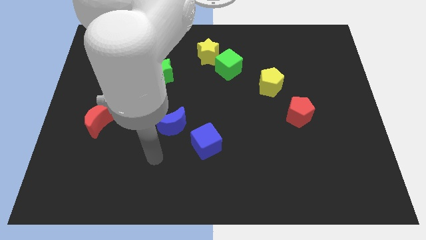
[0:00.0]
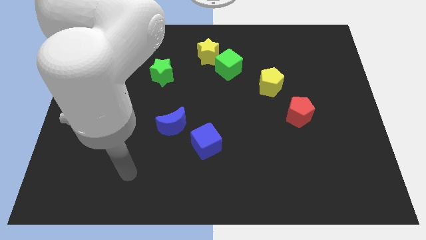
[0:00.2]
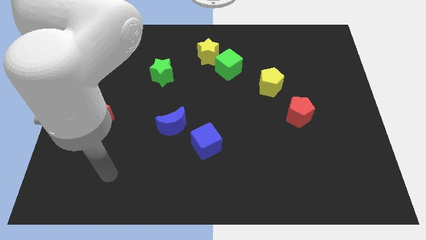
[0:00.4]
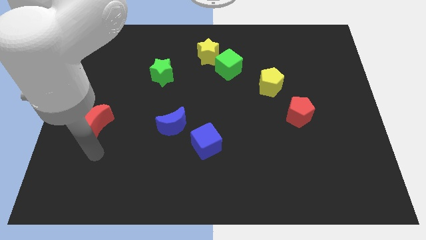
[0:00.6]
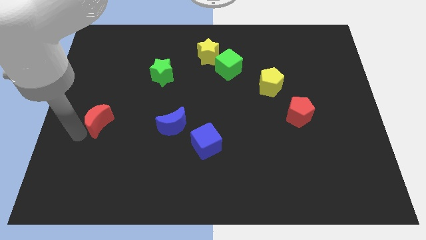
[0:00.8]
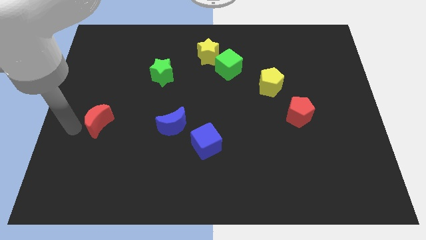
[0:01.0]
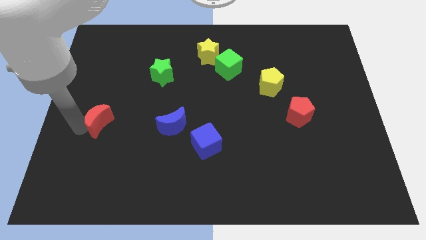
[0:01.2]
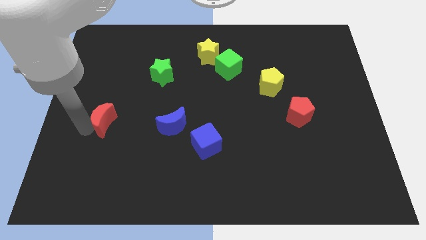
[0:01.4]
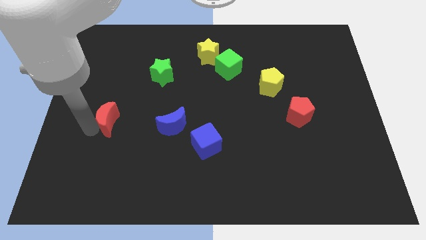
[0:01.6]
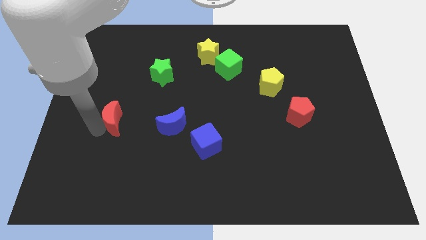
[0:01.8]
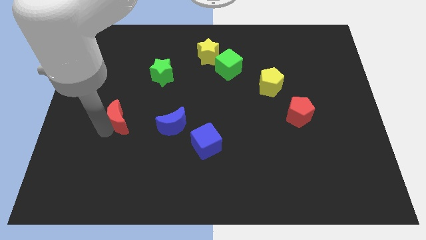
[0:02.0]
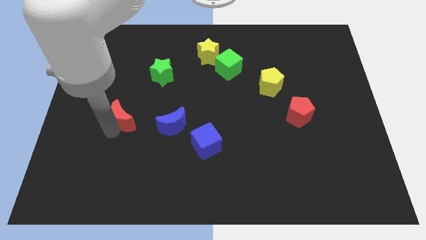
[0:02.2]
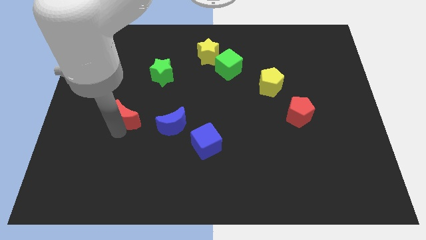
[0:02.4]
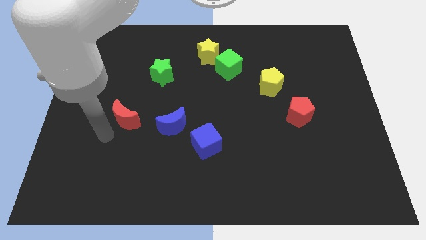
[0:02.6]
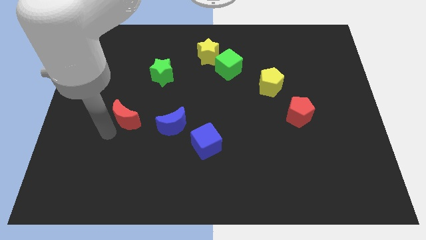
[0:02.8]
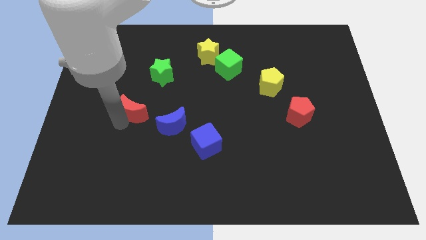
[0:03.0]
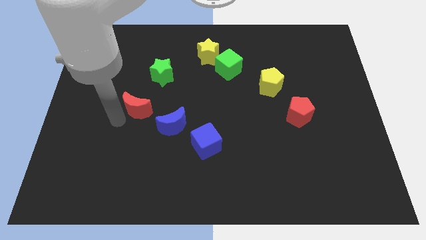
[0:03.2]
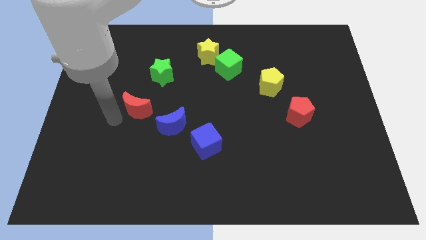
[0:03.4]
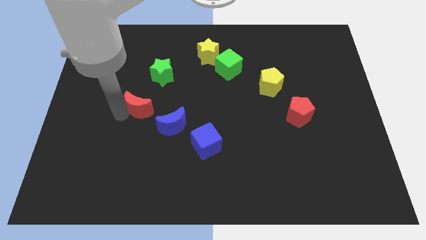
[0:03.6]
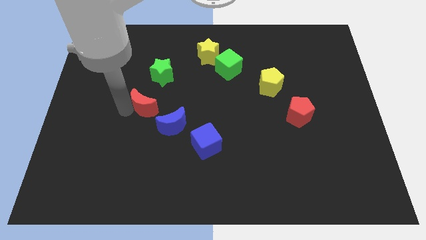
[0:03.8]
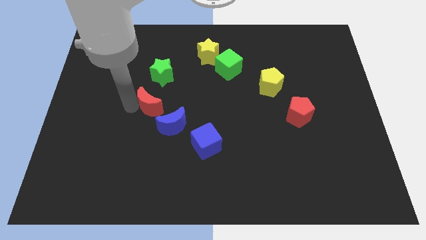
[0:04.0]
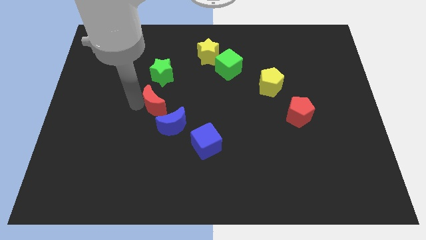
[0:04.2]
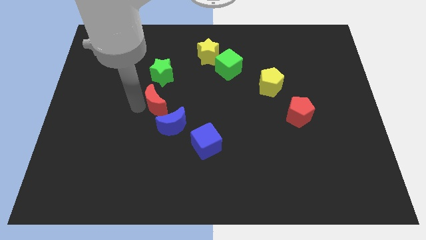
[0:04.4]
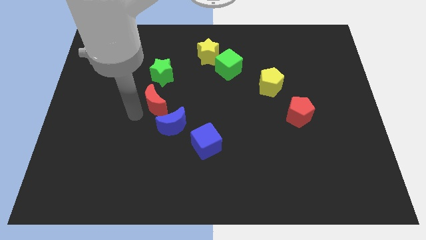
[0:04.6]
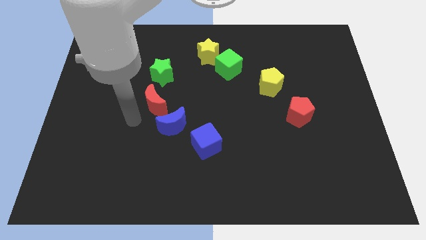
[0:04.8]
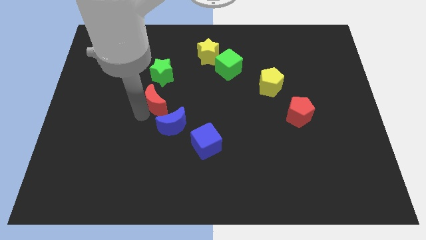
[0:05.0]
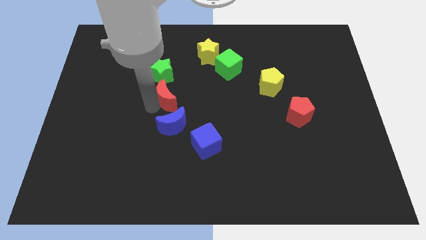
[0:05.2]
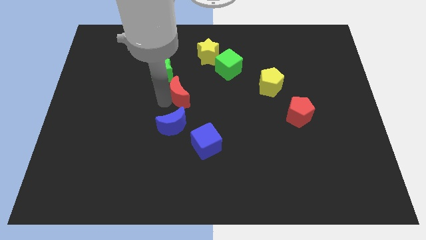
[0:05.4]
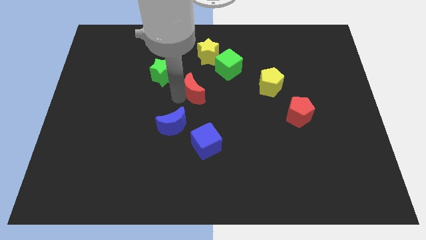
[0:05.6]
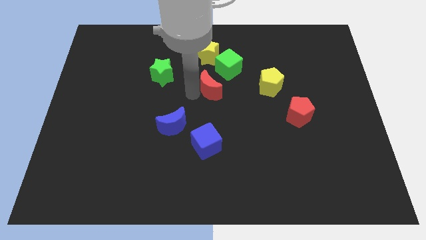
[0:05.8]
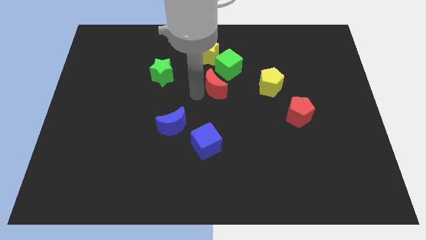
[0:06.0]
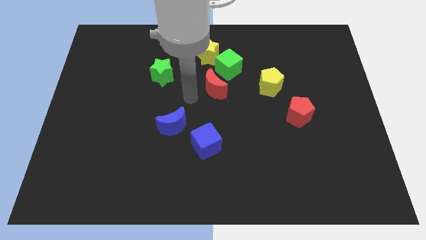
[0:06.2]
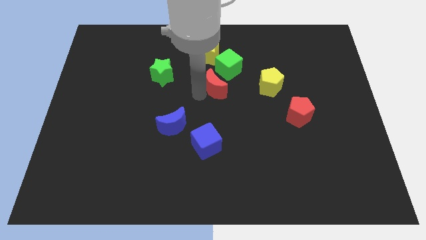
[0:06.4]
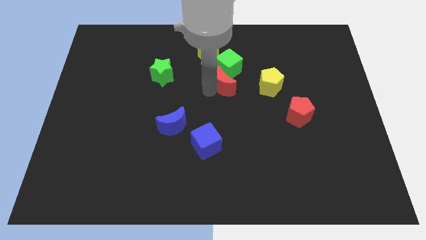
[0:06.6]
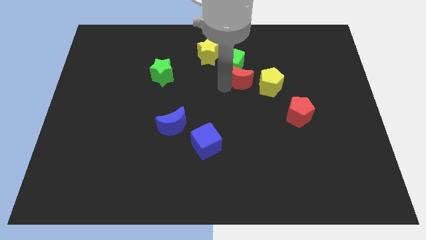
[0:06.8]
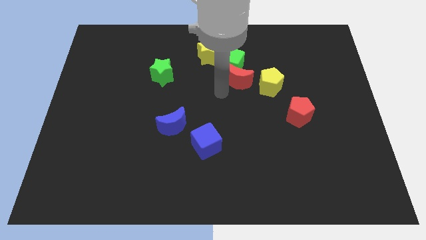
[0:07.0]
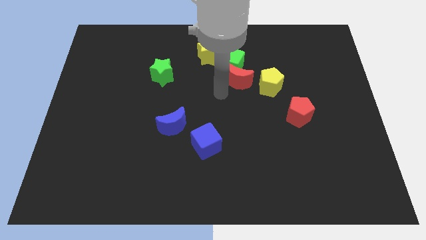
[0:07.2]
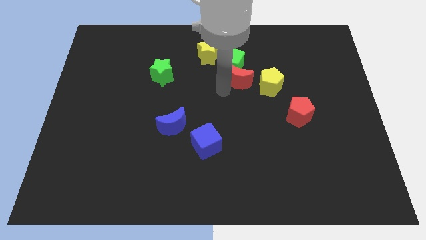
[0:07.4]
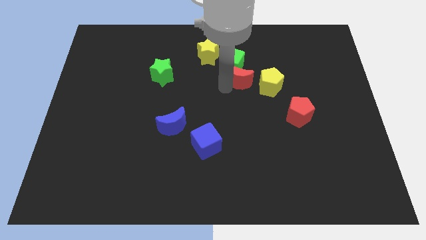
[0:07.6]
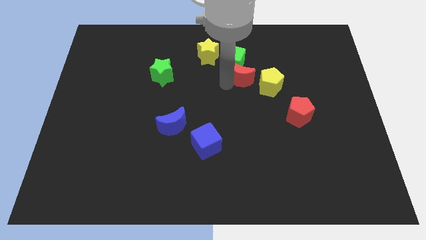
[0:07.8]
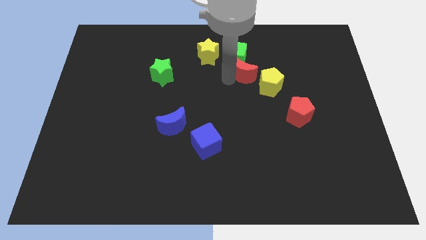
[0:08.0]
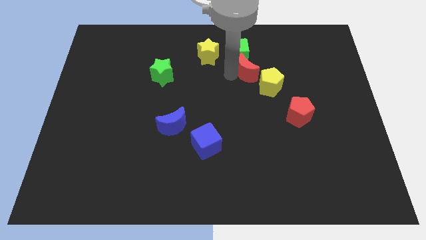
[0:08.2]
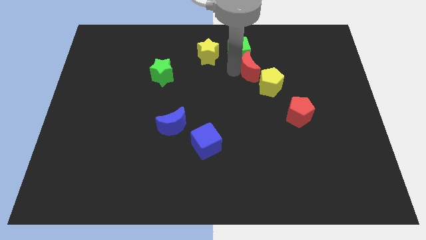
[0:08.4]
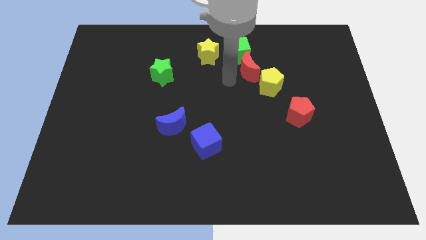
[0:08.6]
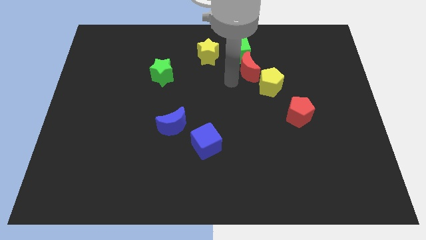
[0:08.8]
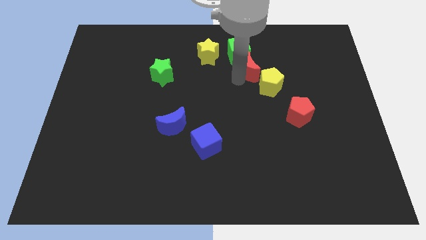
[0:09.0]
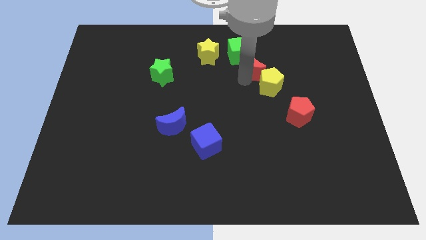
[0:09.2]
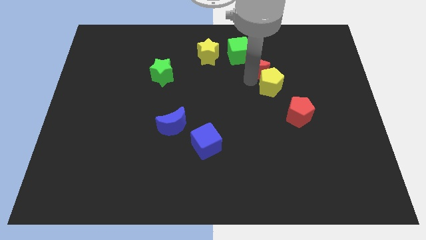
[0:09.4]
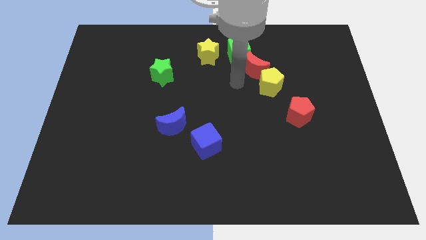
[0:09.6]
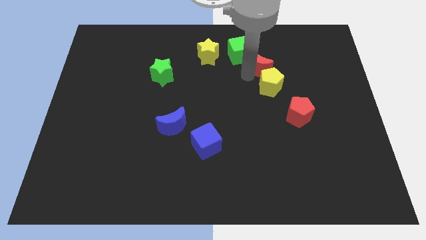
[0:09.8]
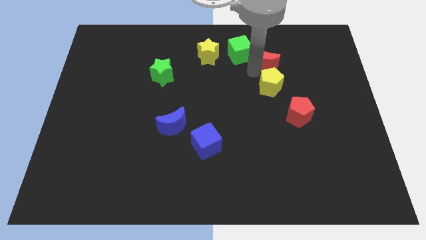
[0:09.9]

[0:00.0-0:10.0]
move the red moon to the right side of the green cube

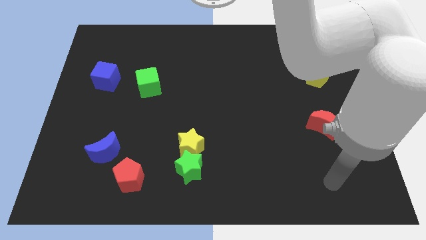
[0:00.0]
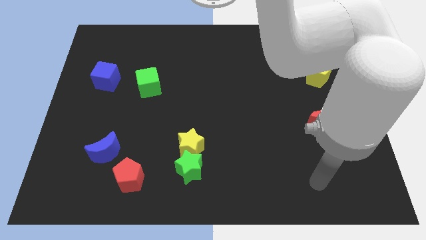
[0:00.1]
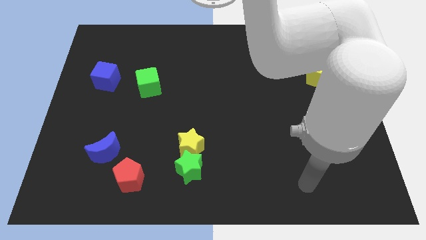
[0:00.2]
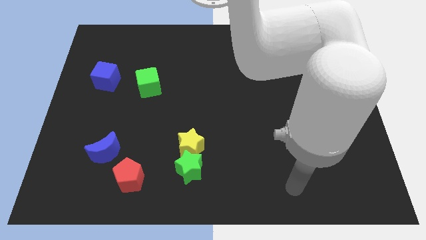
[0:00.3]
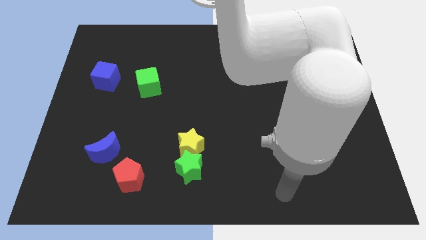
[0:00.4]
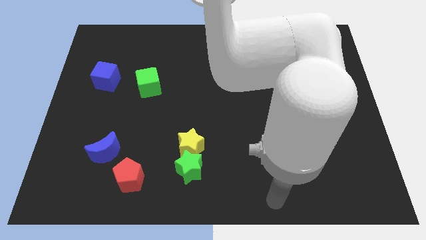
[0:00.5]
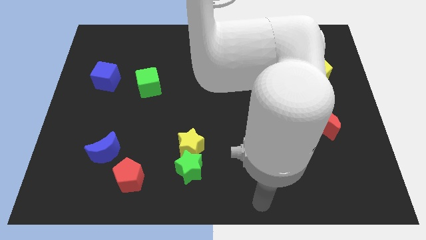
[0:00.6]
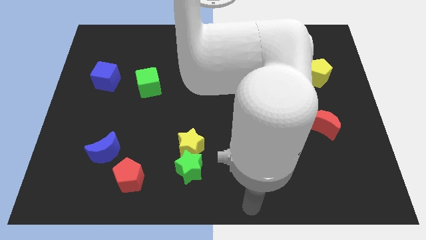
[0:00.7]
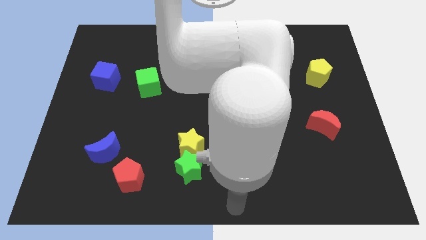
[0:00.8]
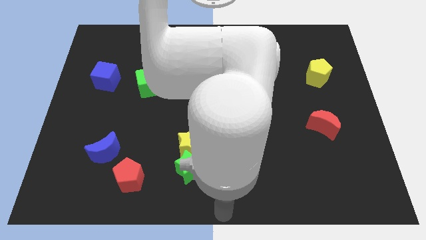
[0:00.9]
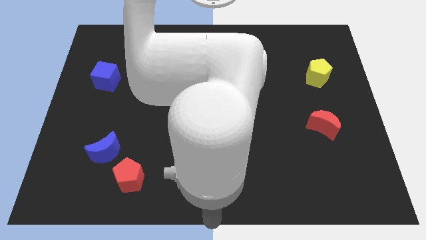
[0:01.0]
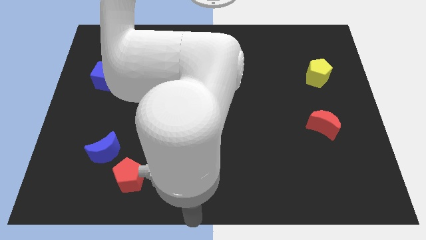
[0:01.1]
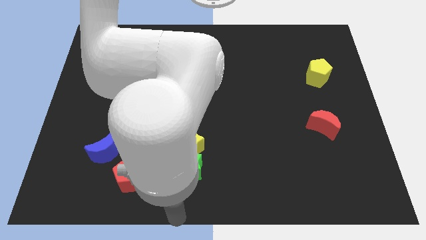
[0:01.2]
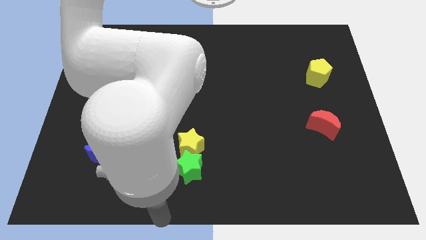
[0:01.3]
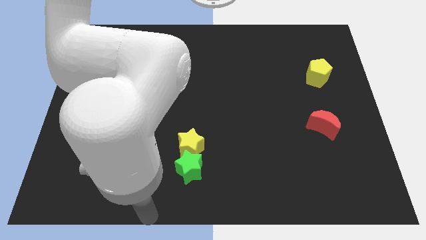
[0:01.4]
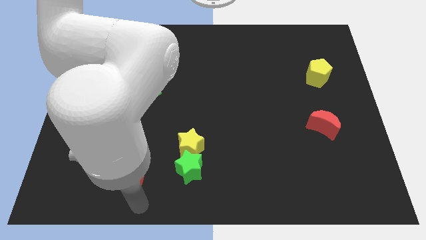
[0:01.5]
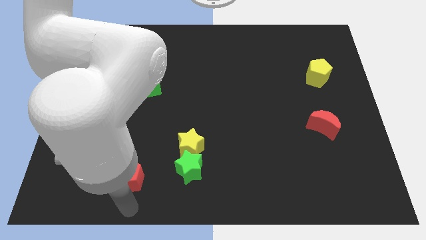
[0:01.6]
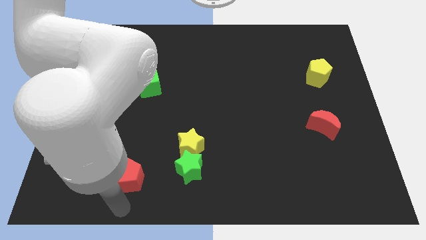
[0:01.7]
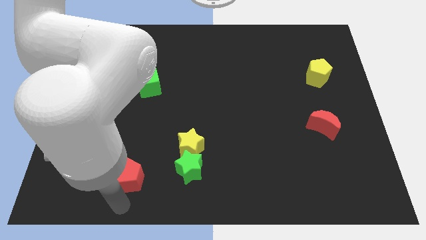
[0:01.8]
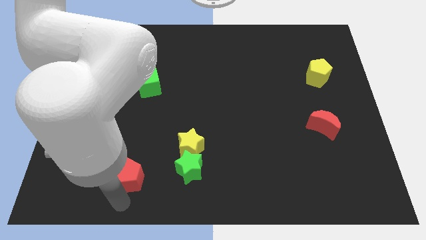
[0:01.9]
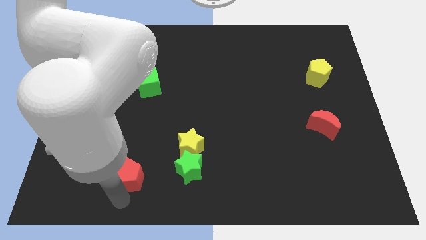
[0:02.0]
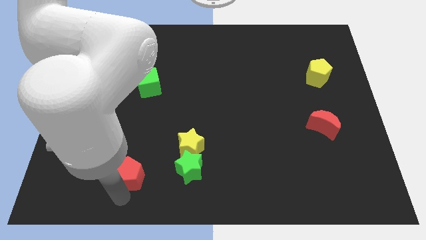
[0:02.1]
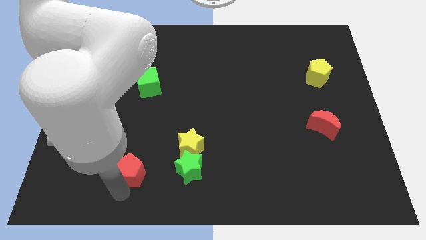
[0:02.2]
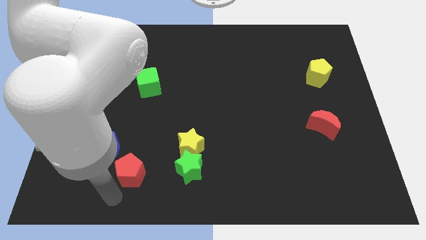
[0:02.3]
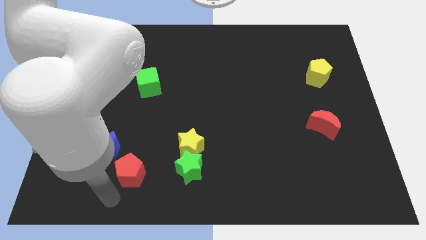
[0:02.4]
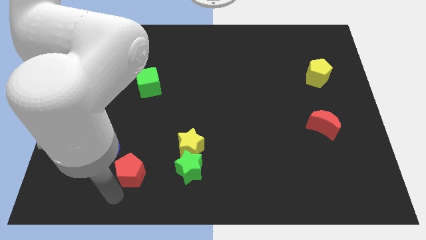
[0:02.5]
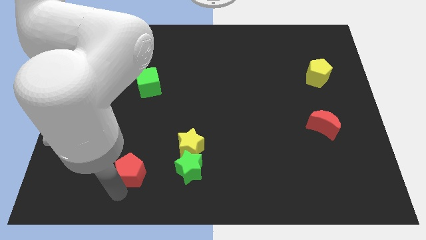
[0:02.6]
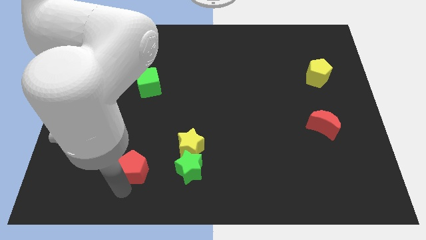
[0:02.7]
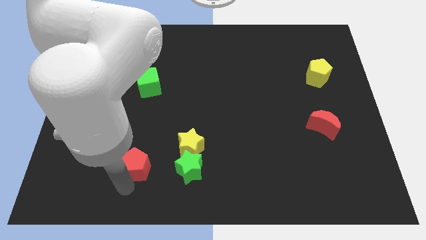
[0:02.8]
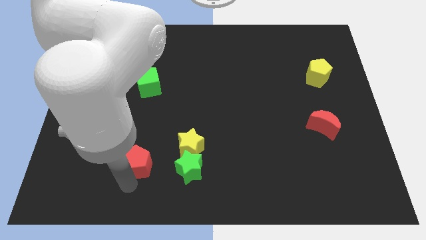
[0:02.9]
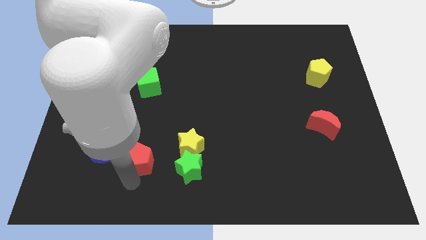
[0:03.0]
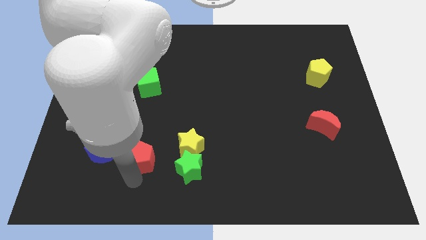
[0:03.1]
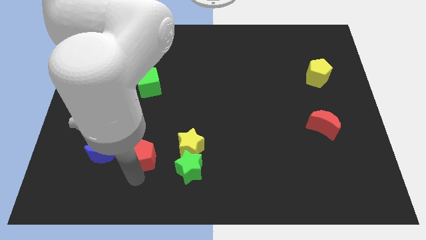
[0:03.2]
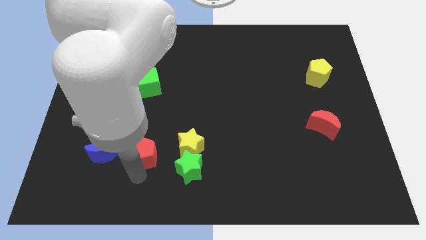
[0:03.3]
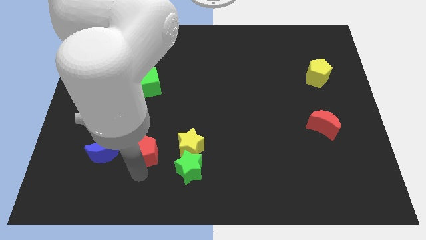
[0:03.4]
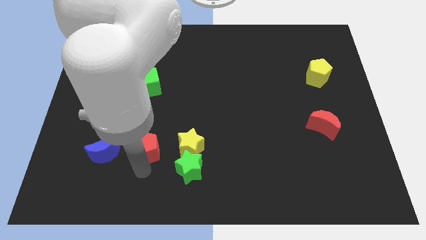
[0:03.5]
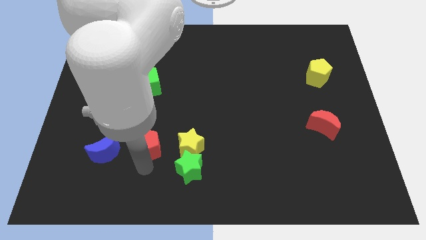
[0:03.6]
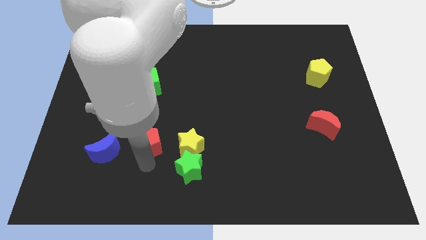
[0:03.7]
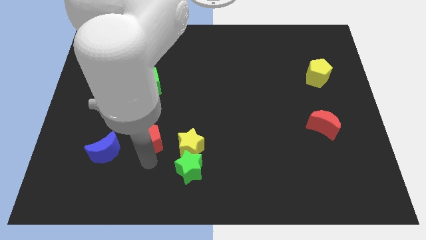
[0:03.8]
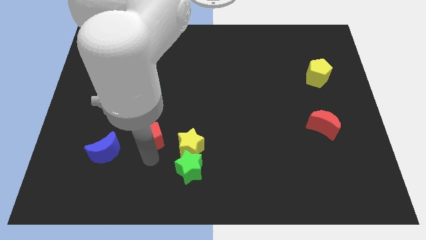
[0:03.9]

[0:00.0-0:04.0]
push the red pentagon to the top left of the yellow star
